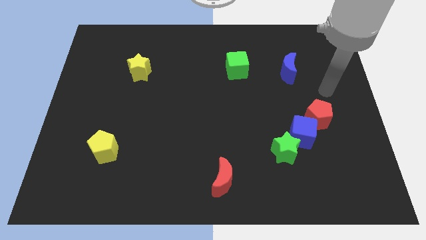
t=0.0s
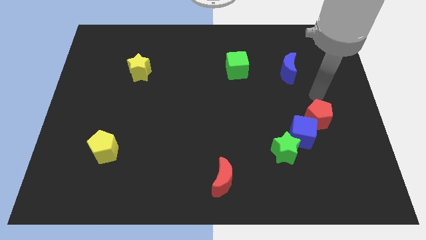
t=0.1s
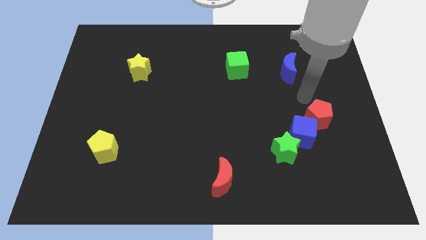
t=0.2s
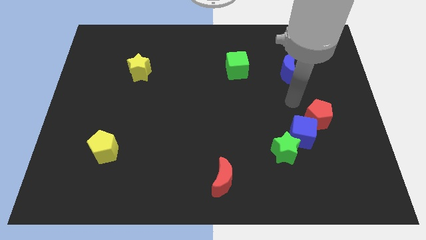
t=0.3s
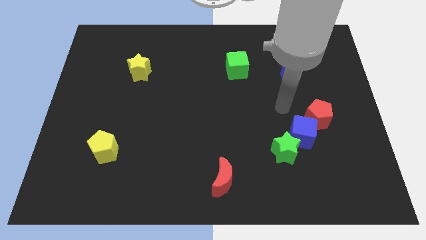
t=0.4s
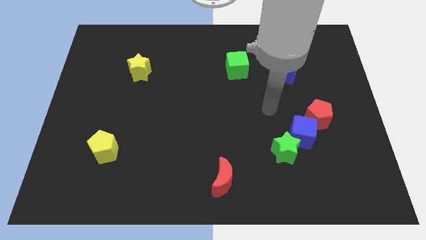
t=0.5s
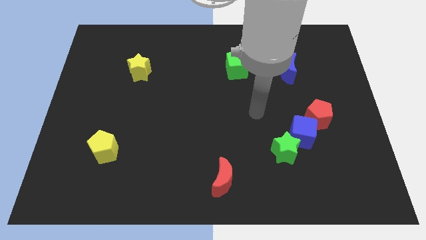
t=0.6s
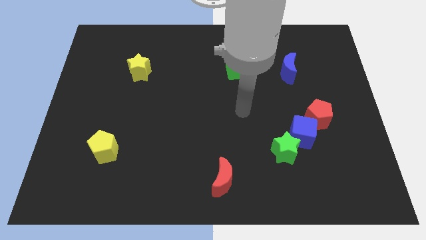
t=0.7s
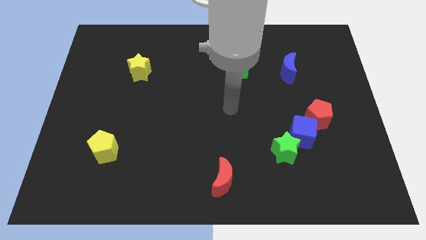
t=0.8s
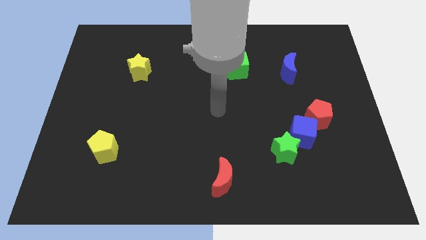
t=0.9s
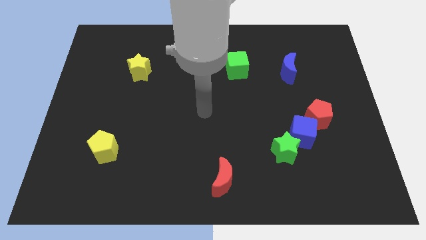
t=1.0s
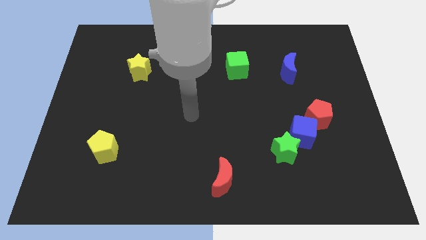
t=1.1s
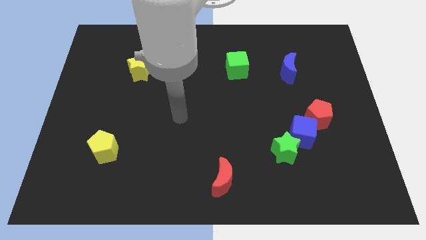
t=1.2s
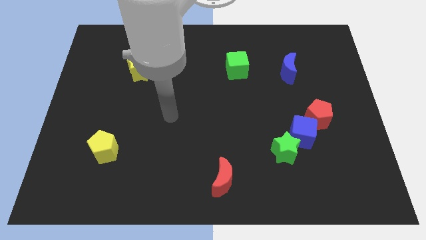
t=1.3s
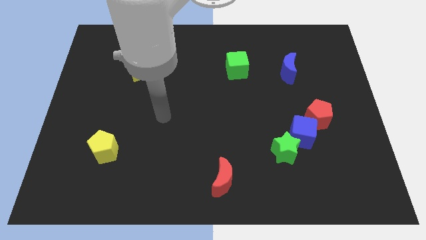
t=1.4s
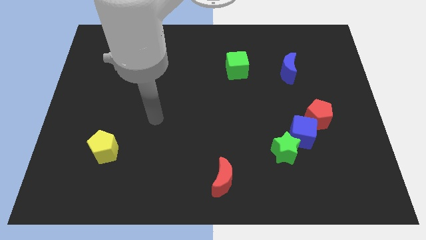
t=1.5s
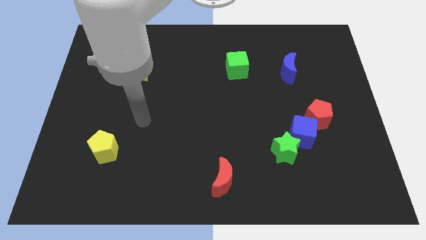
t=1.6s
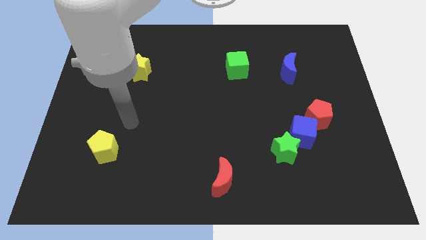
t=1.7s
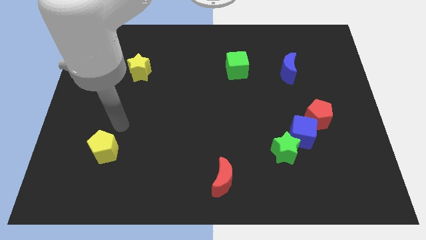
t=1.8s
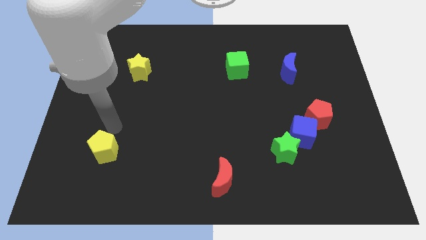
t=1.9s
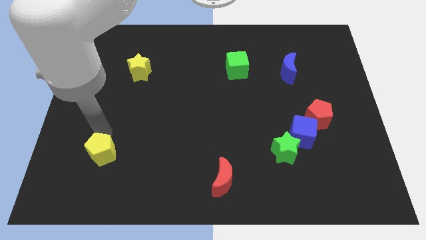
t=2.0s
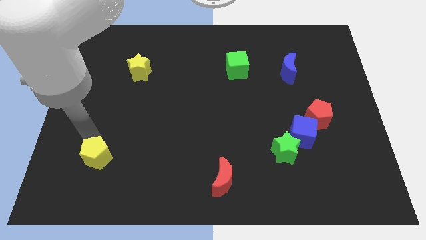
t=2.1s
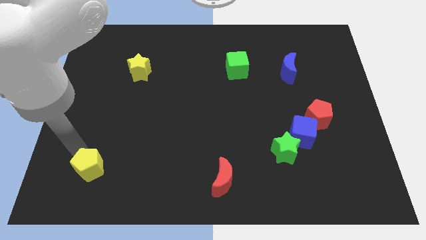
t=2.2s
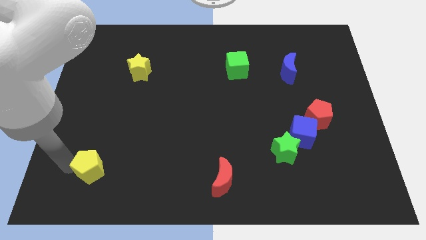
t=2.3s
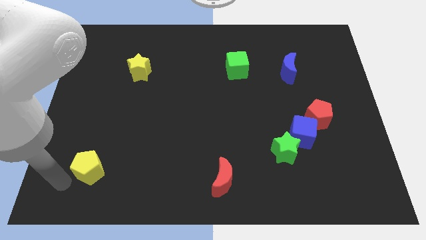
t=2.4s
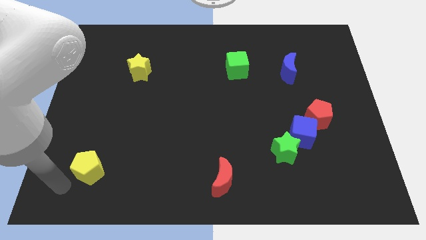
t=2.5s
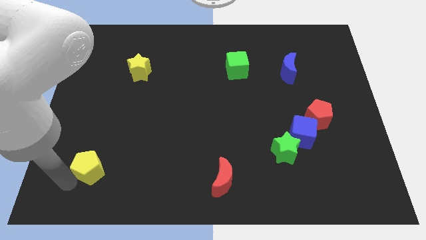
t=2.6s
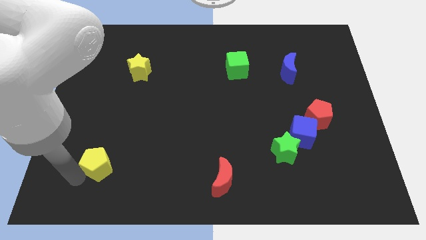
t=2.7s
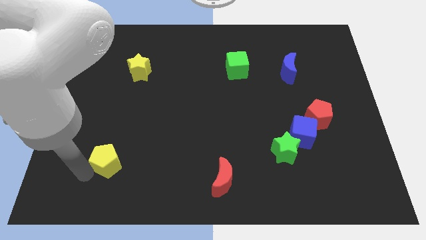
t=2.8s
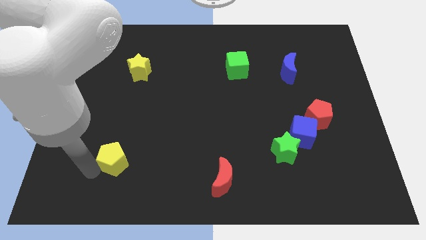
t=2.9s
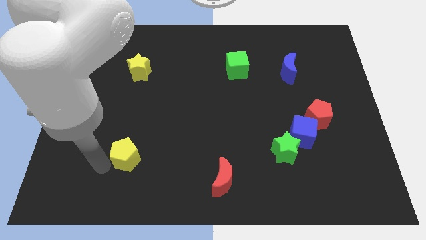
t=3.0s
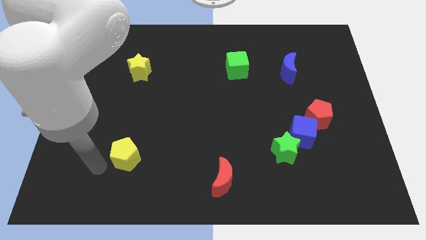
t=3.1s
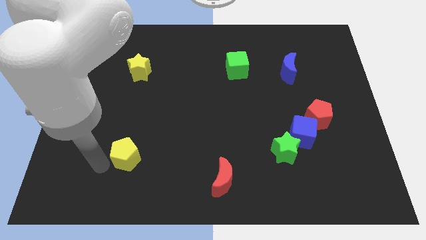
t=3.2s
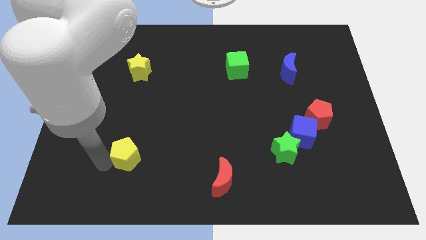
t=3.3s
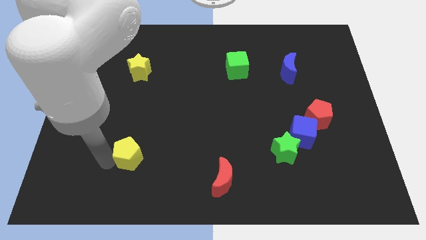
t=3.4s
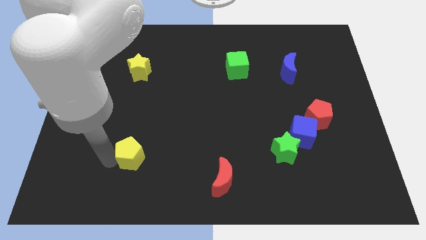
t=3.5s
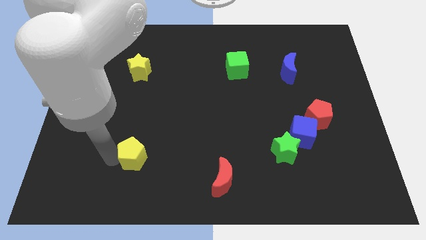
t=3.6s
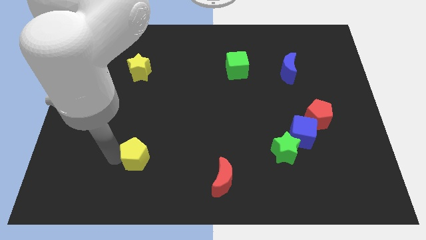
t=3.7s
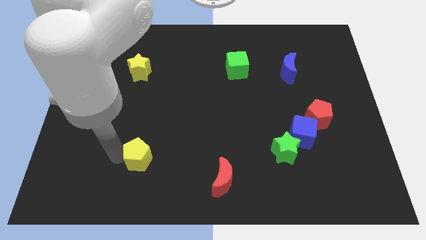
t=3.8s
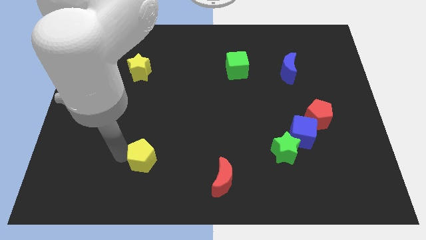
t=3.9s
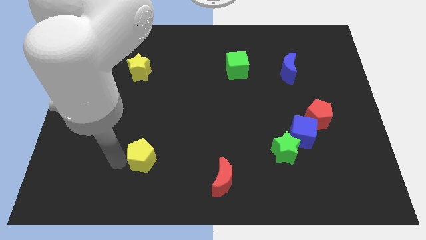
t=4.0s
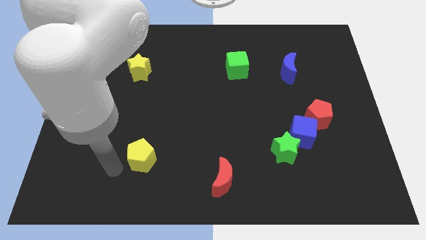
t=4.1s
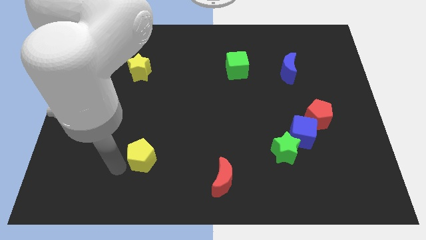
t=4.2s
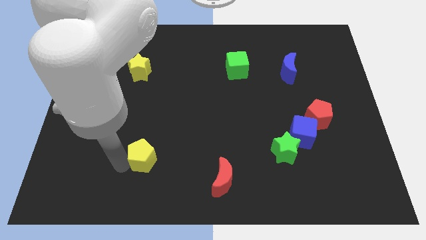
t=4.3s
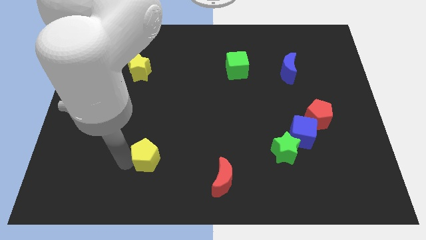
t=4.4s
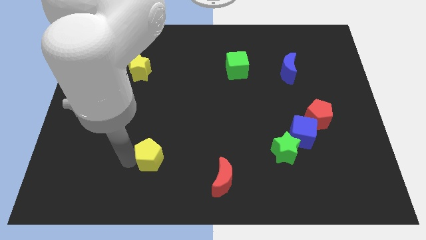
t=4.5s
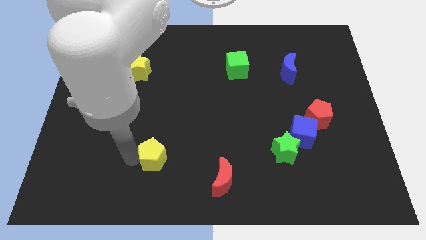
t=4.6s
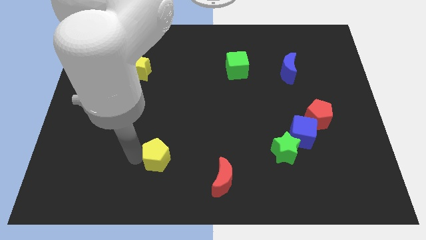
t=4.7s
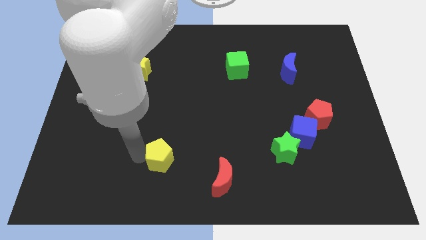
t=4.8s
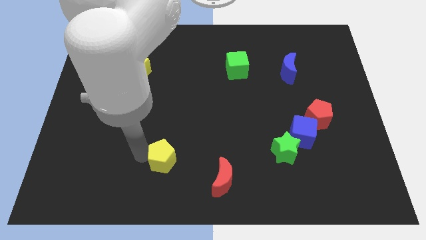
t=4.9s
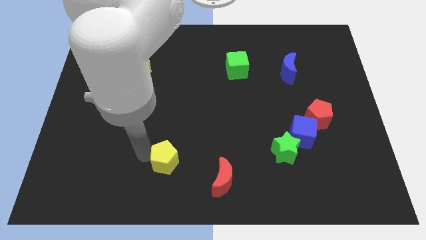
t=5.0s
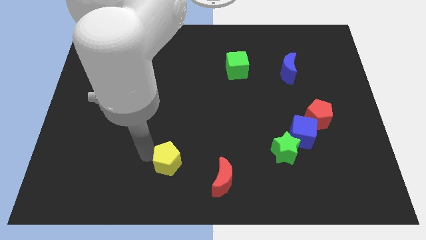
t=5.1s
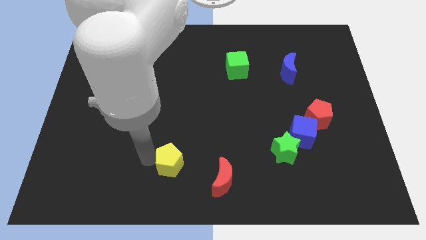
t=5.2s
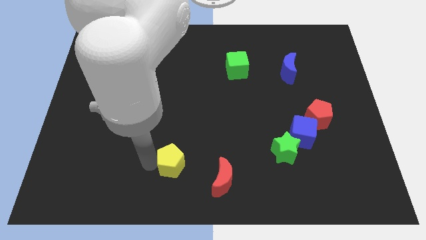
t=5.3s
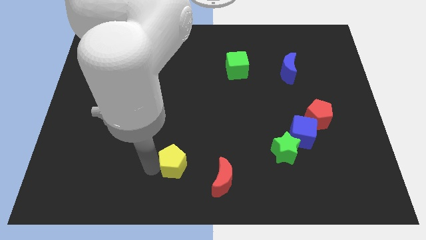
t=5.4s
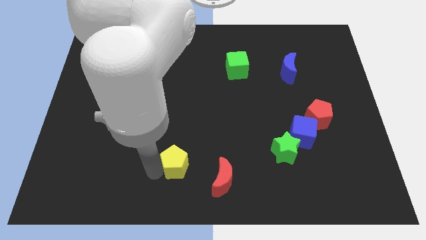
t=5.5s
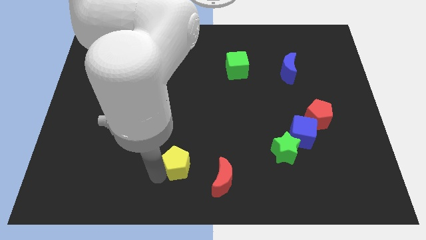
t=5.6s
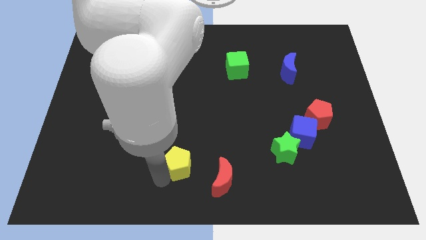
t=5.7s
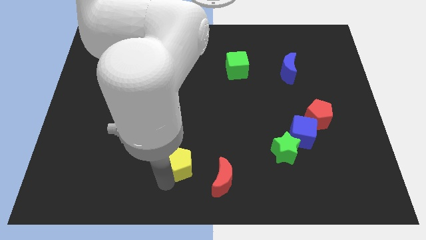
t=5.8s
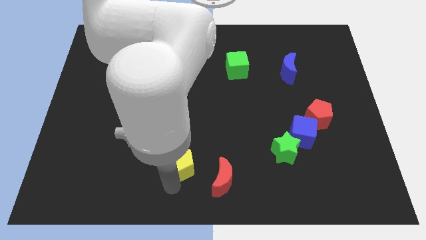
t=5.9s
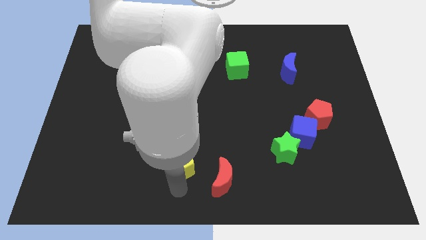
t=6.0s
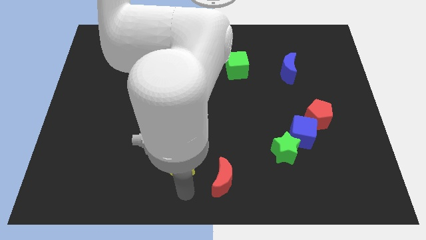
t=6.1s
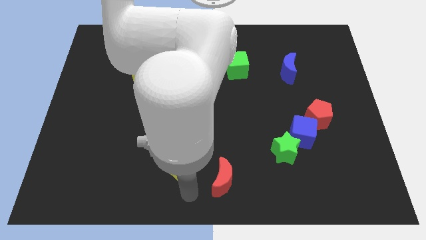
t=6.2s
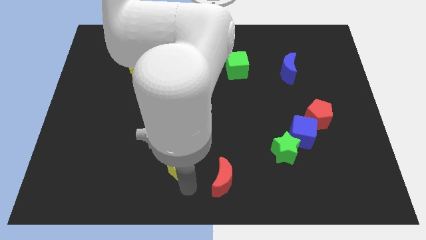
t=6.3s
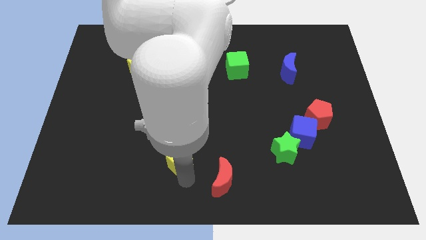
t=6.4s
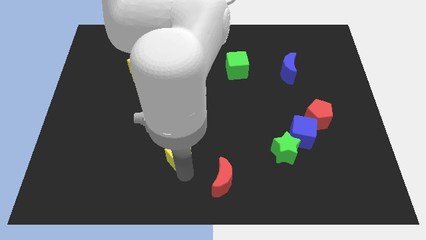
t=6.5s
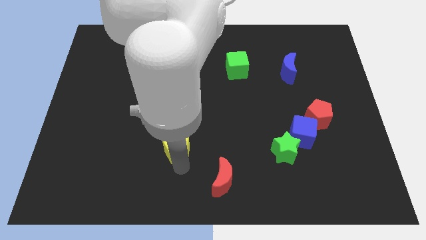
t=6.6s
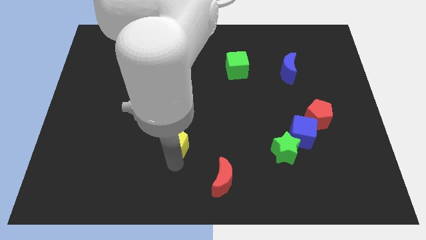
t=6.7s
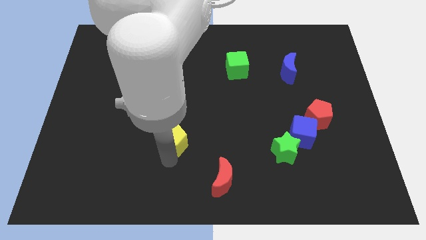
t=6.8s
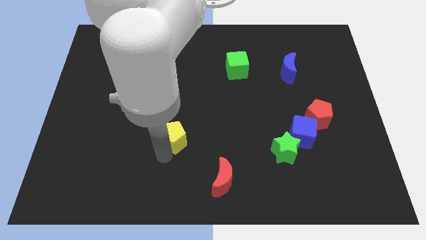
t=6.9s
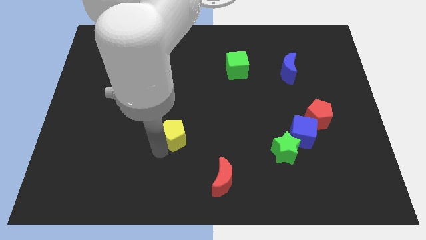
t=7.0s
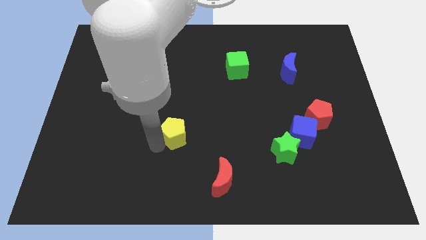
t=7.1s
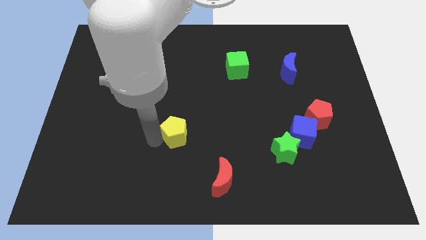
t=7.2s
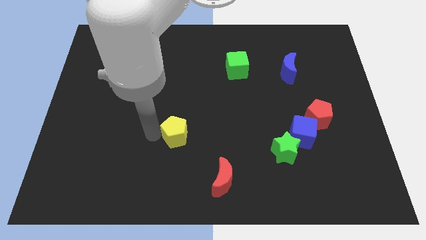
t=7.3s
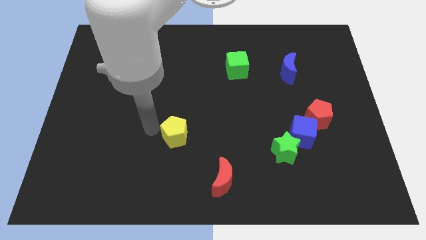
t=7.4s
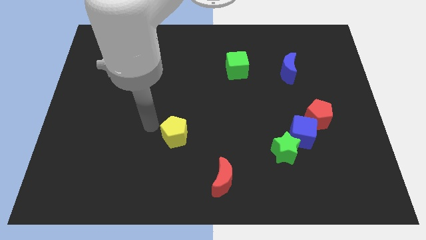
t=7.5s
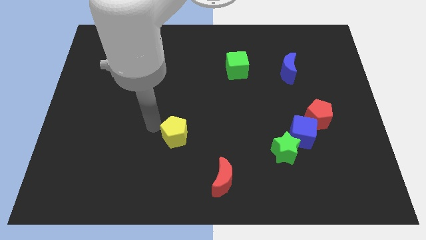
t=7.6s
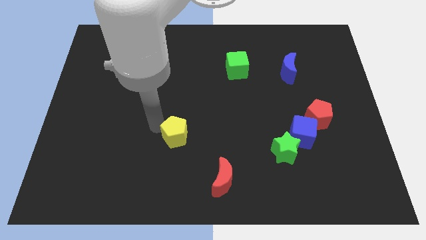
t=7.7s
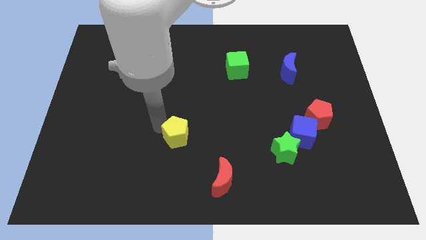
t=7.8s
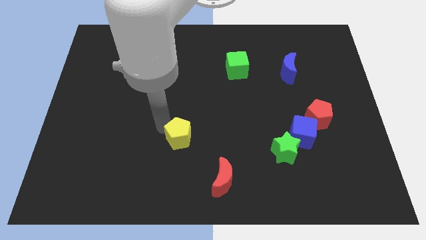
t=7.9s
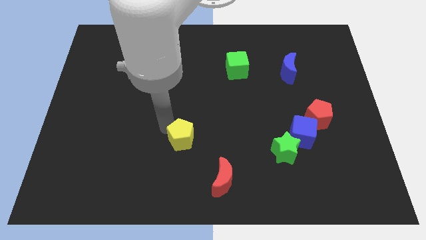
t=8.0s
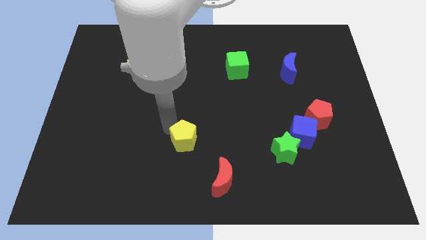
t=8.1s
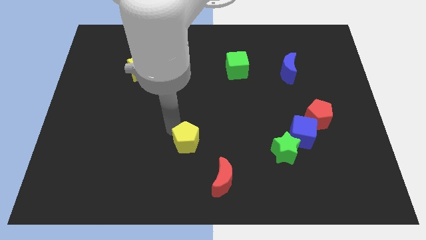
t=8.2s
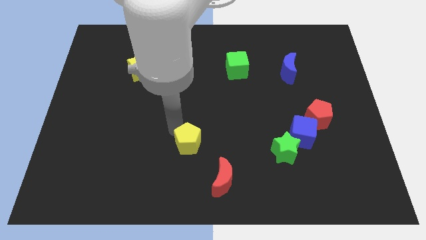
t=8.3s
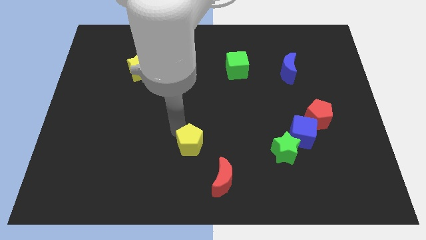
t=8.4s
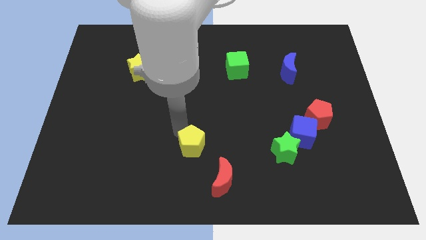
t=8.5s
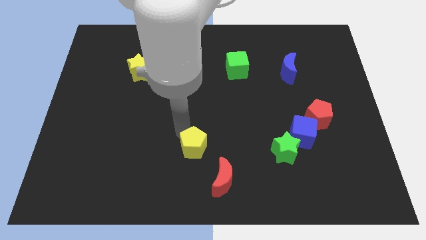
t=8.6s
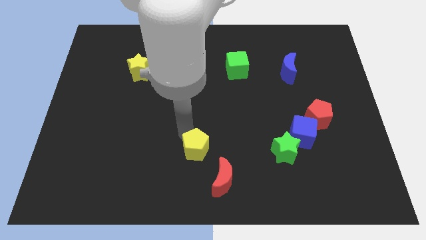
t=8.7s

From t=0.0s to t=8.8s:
move the yellow pentagon to the right
